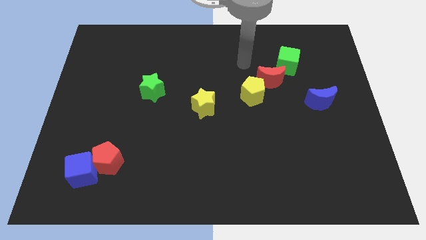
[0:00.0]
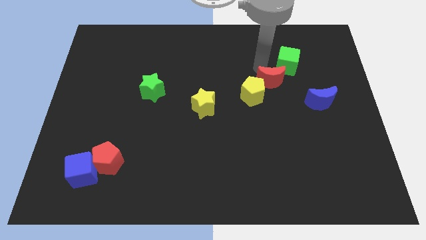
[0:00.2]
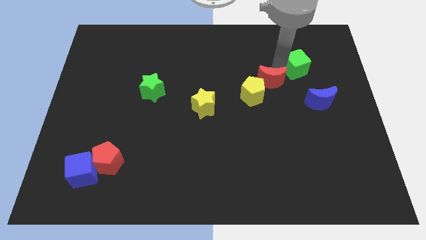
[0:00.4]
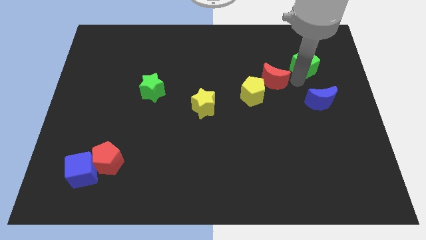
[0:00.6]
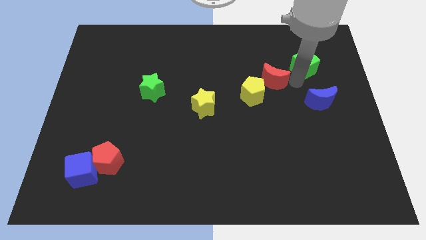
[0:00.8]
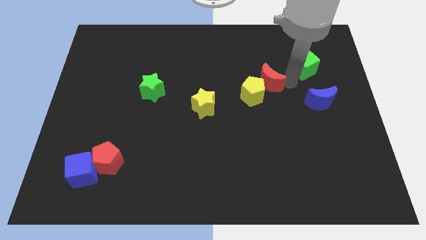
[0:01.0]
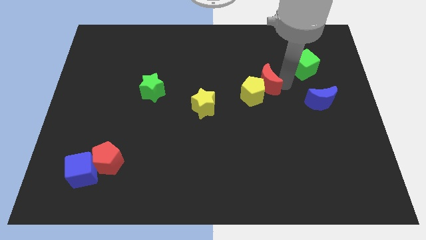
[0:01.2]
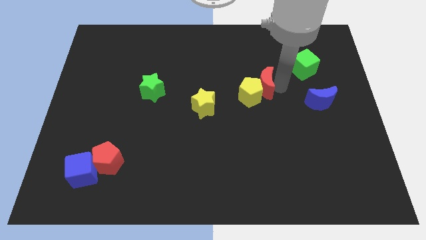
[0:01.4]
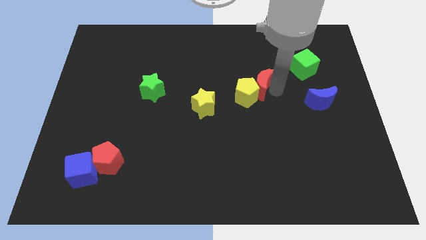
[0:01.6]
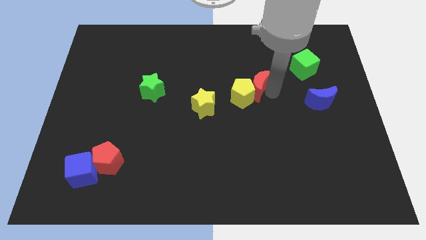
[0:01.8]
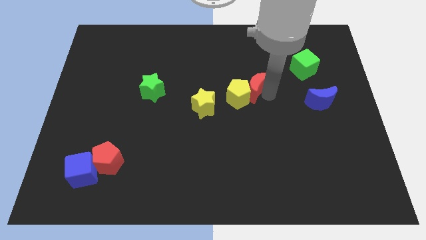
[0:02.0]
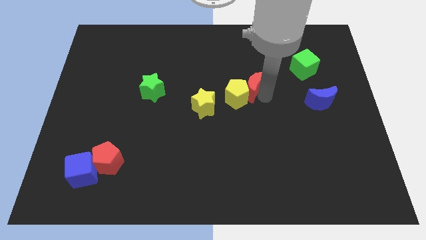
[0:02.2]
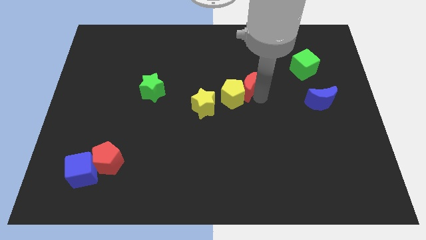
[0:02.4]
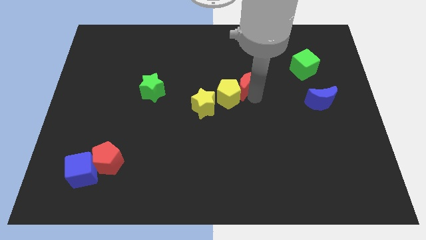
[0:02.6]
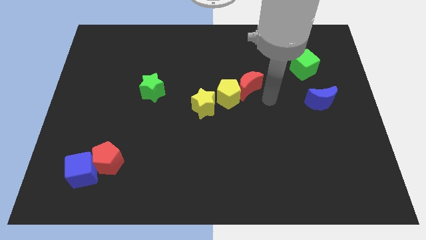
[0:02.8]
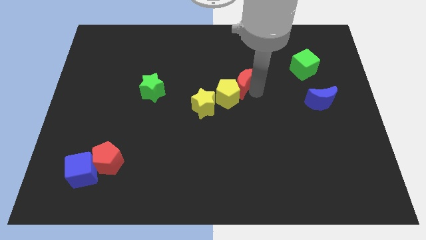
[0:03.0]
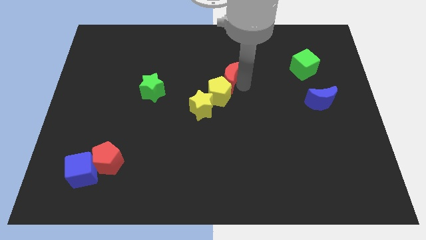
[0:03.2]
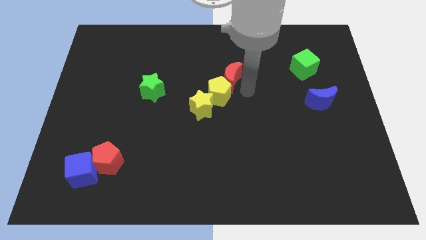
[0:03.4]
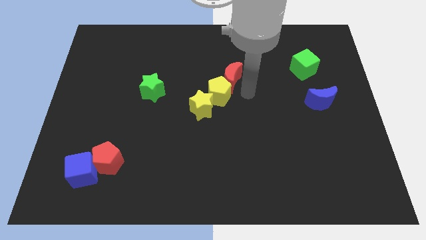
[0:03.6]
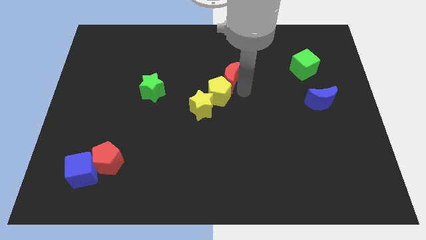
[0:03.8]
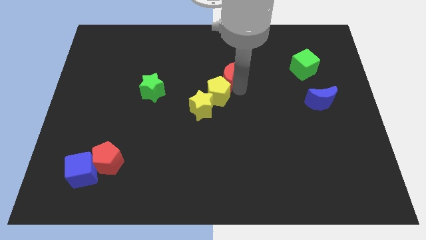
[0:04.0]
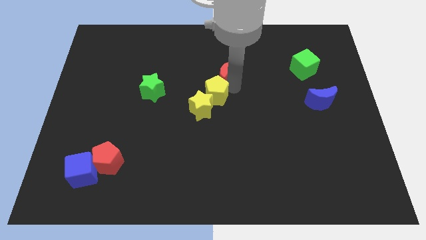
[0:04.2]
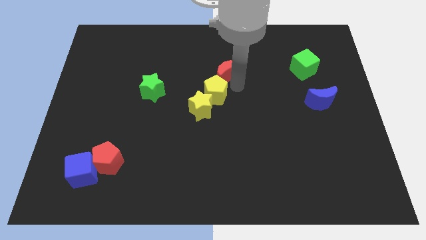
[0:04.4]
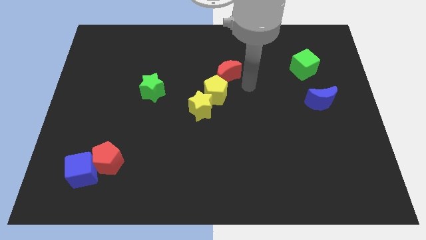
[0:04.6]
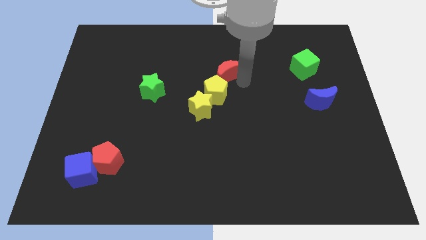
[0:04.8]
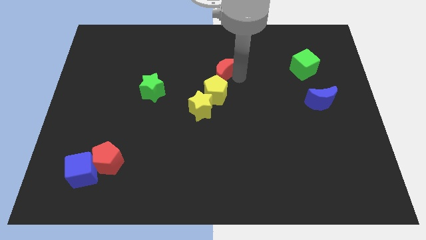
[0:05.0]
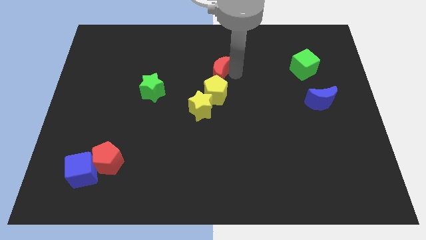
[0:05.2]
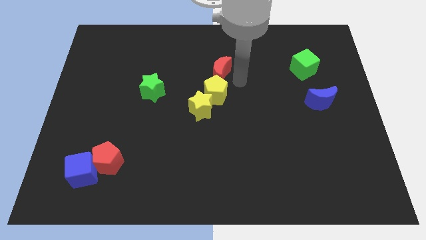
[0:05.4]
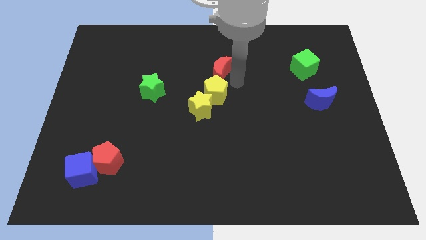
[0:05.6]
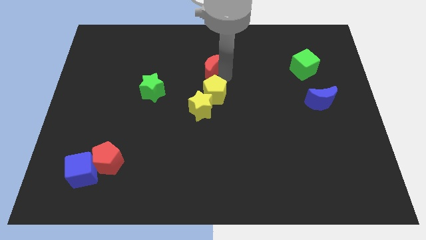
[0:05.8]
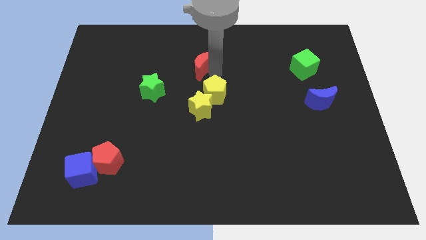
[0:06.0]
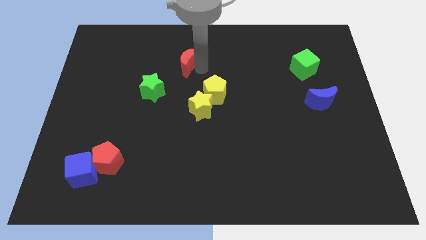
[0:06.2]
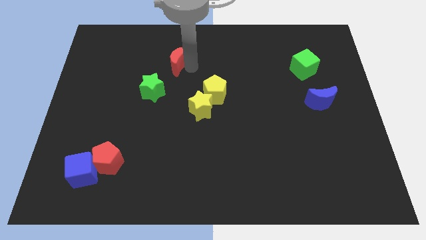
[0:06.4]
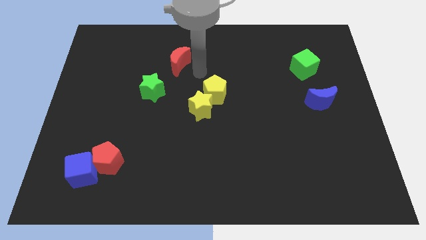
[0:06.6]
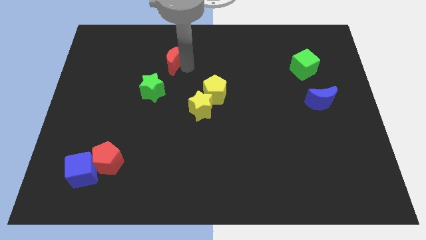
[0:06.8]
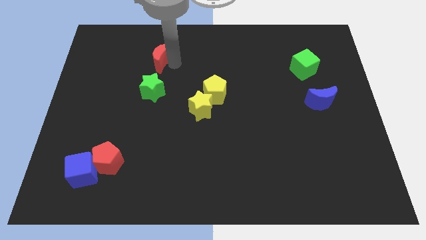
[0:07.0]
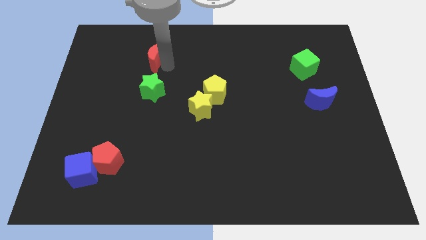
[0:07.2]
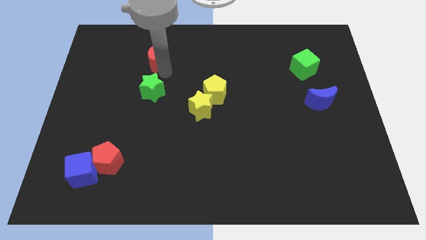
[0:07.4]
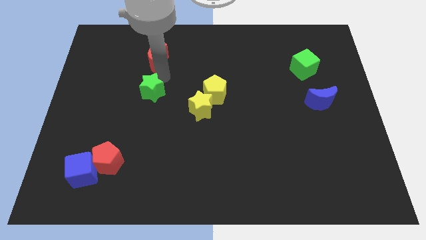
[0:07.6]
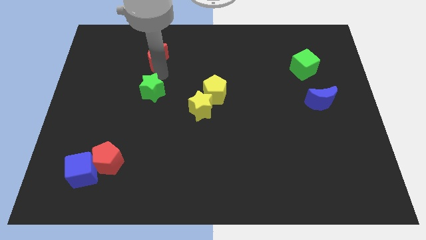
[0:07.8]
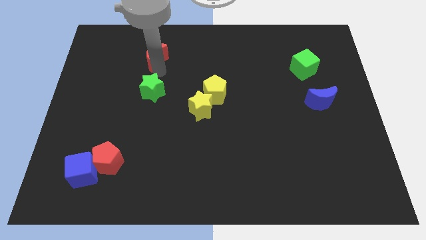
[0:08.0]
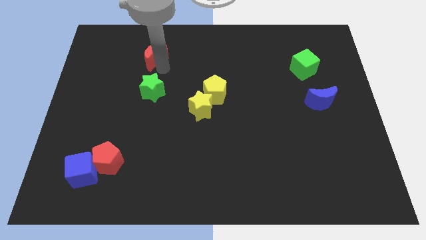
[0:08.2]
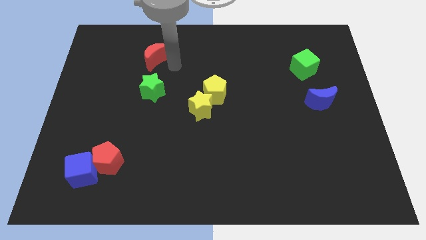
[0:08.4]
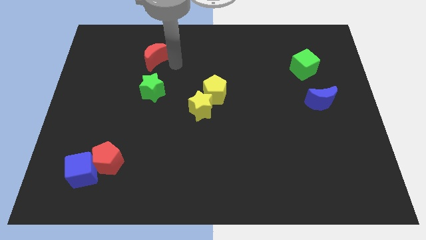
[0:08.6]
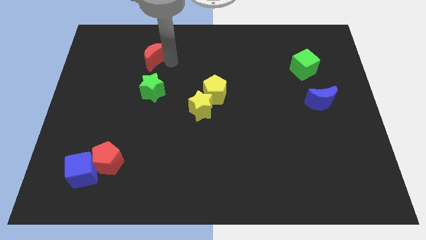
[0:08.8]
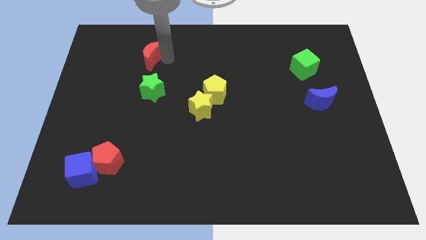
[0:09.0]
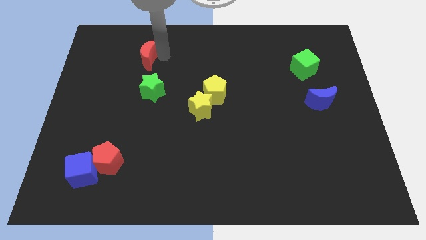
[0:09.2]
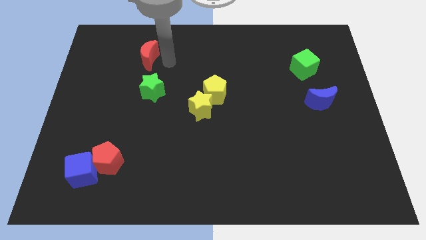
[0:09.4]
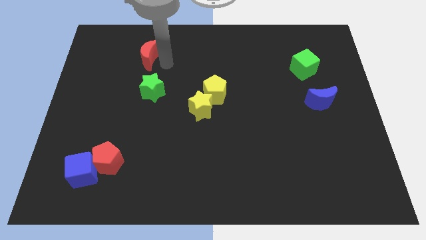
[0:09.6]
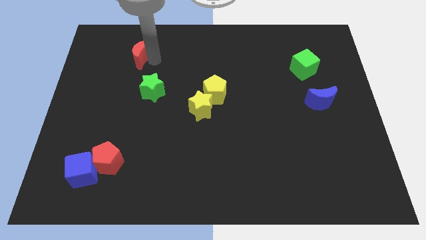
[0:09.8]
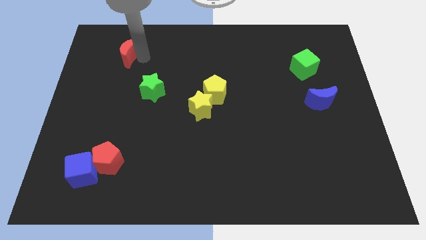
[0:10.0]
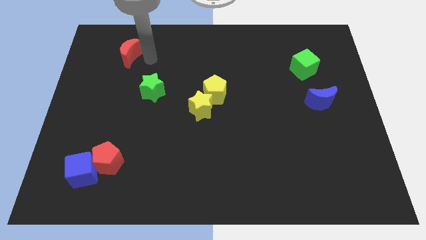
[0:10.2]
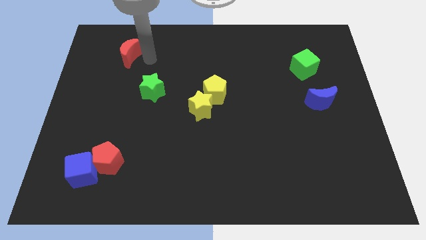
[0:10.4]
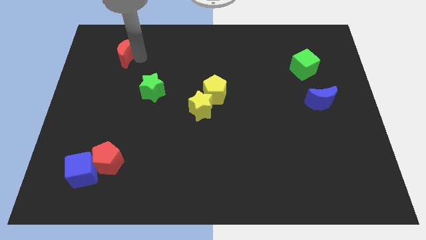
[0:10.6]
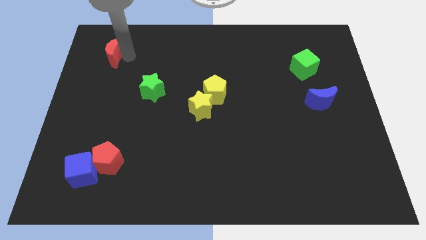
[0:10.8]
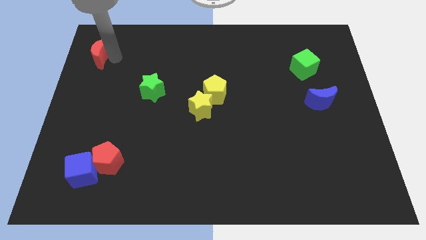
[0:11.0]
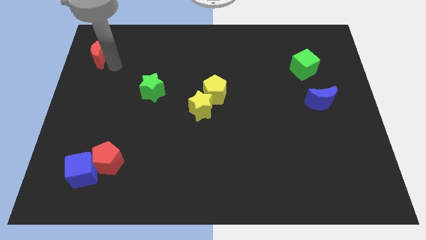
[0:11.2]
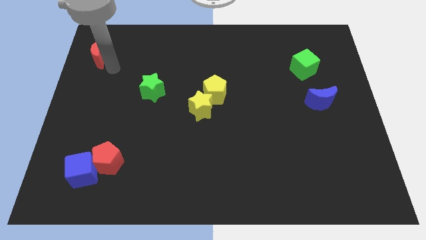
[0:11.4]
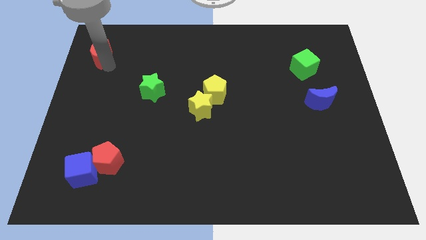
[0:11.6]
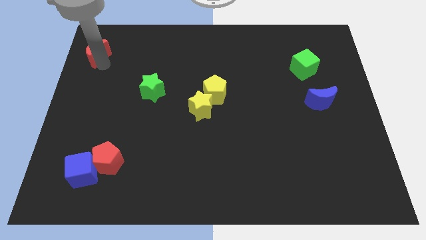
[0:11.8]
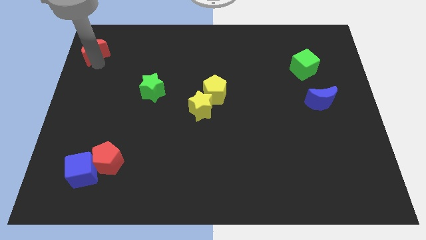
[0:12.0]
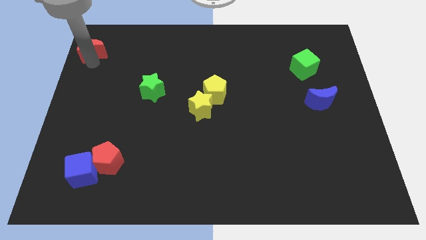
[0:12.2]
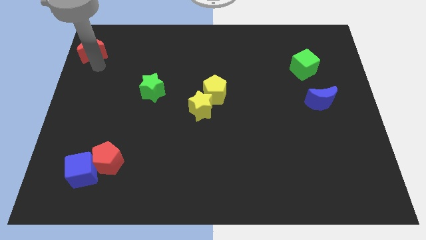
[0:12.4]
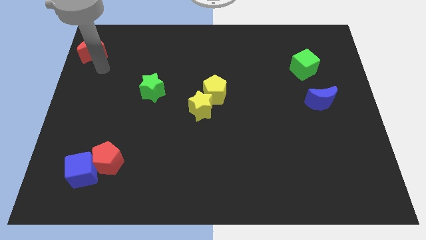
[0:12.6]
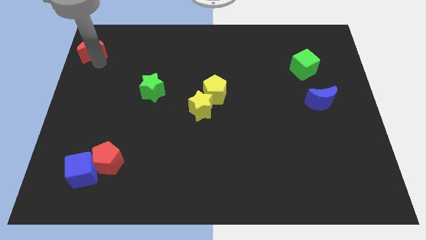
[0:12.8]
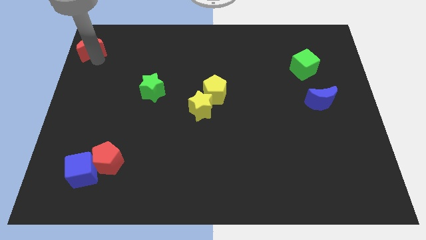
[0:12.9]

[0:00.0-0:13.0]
push the red moon to the top left corner

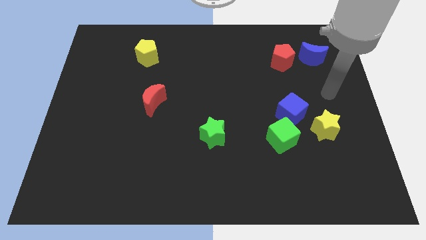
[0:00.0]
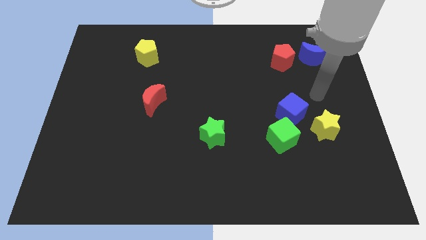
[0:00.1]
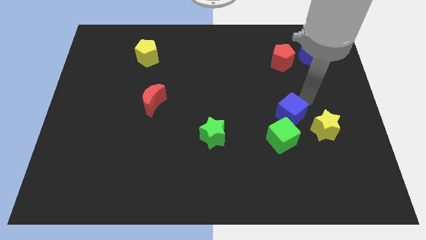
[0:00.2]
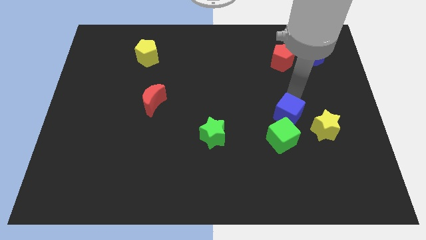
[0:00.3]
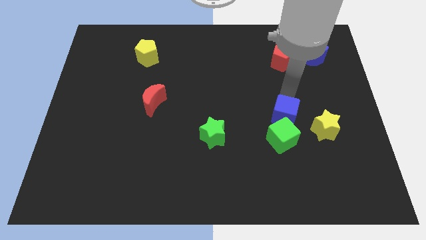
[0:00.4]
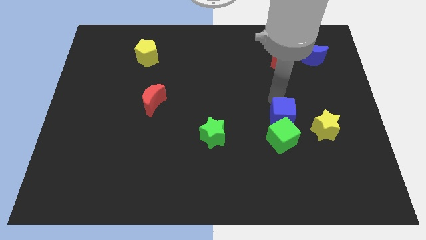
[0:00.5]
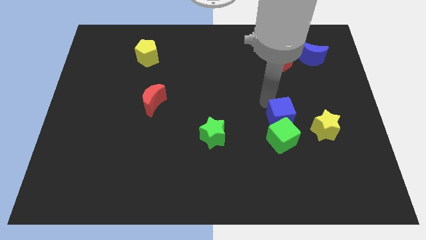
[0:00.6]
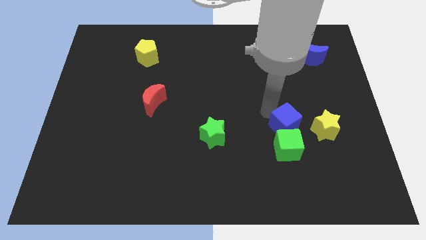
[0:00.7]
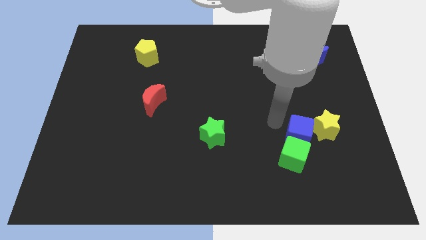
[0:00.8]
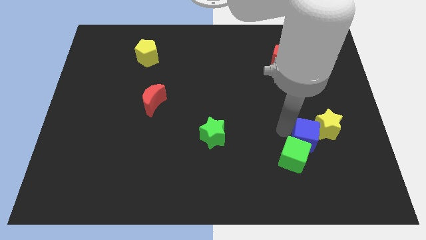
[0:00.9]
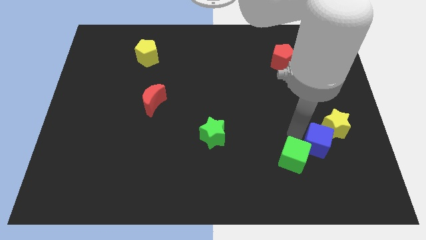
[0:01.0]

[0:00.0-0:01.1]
slide the yellow star to the right side
